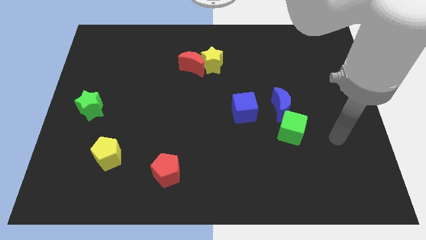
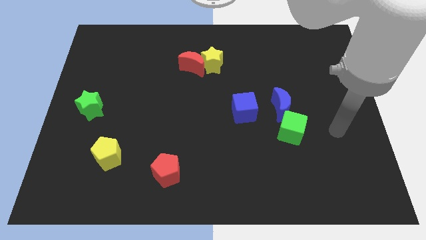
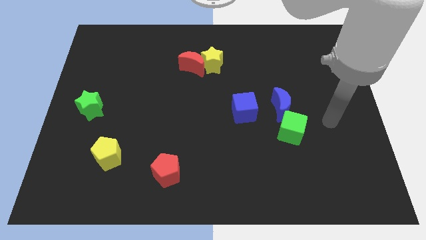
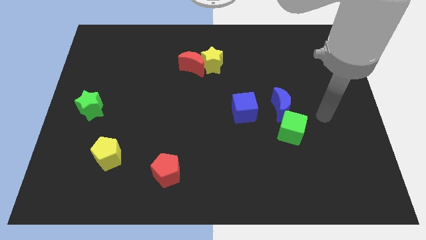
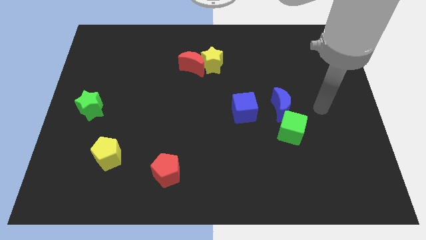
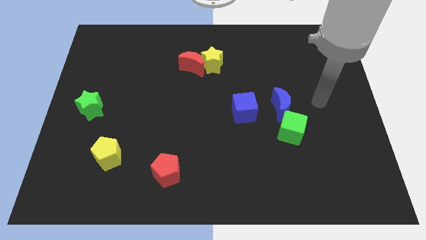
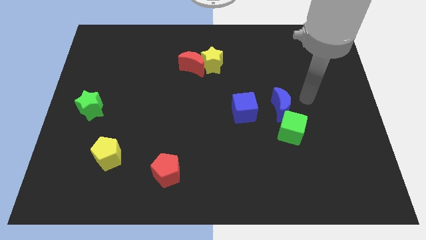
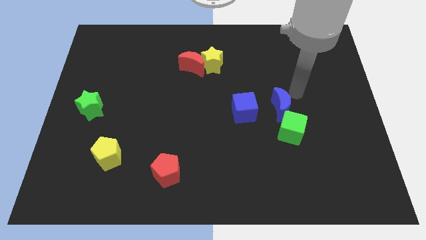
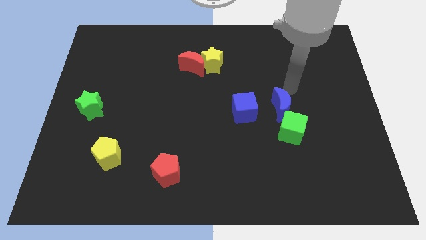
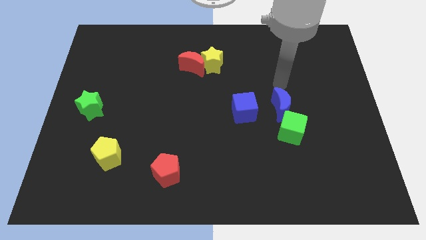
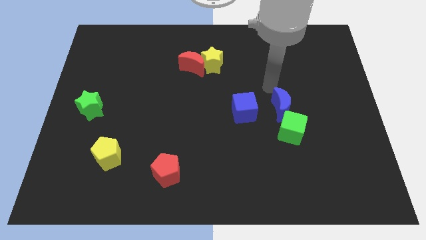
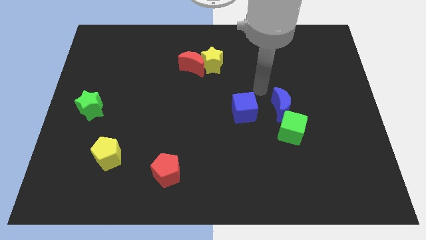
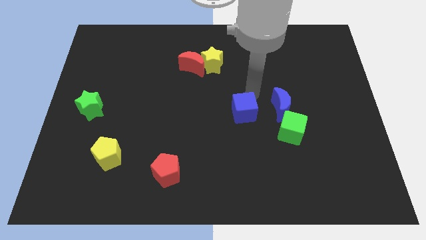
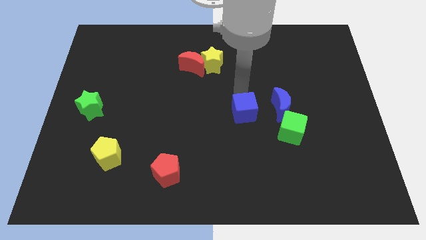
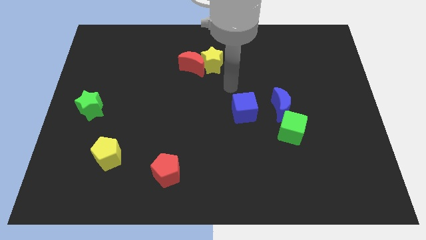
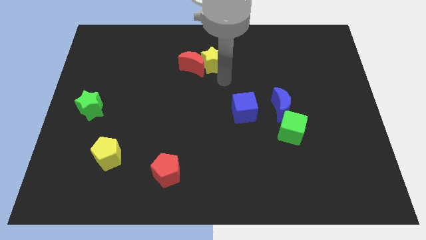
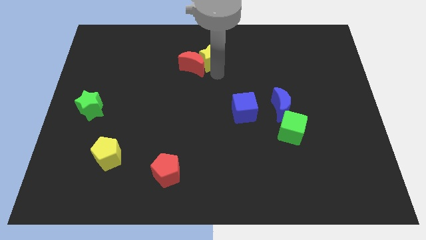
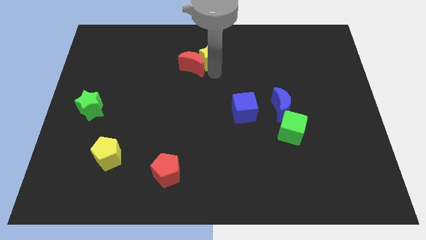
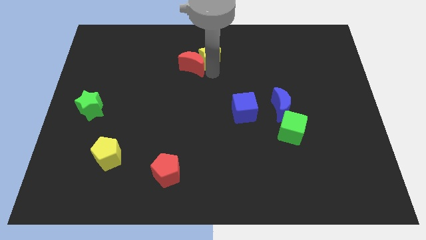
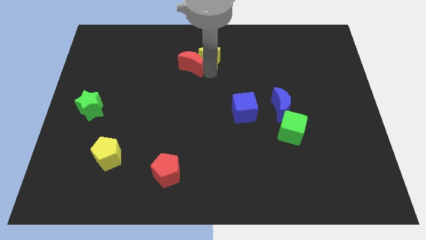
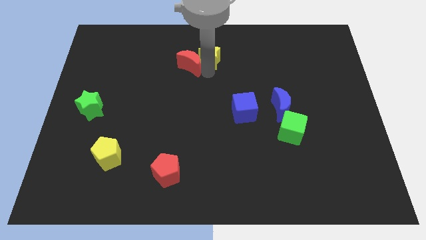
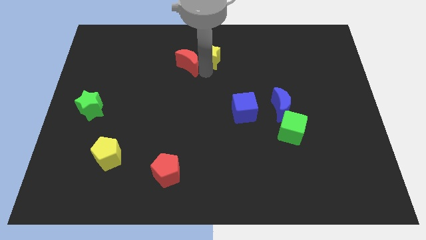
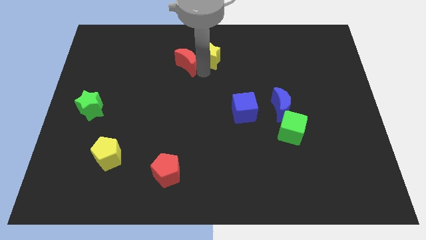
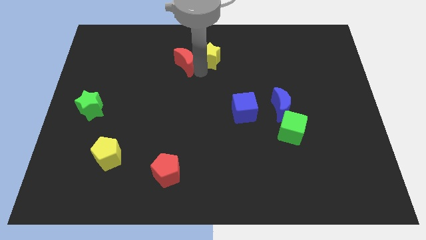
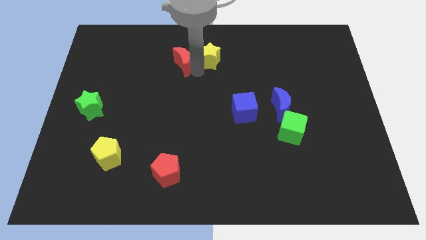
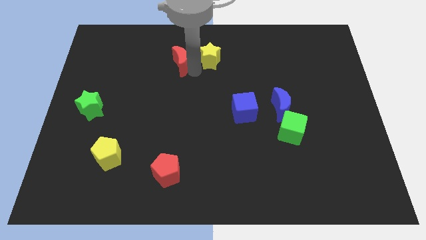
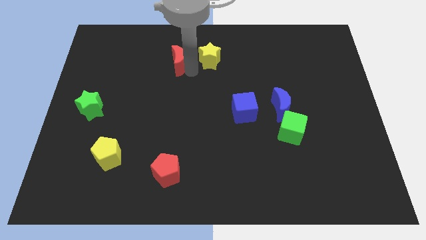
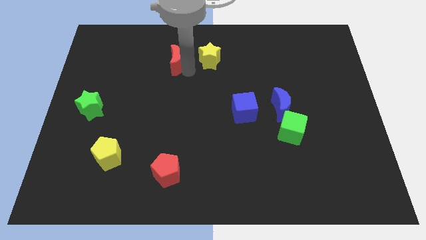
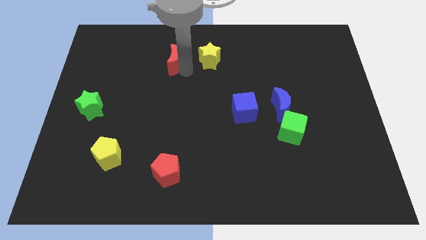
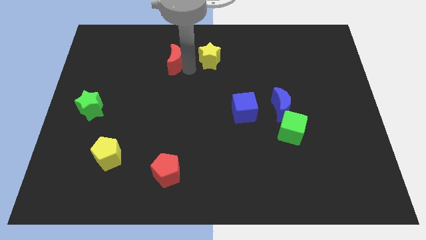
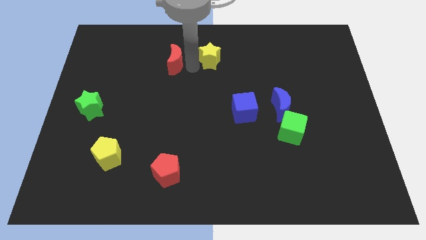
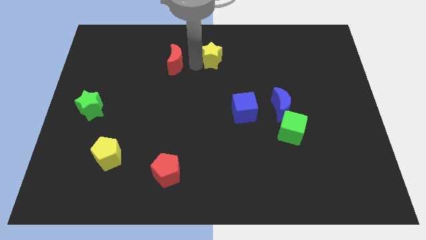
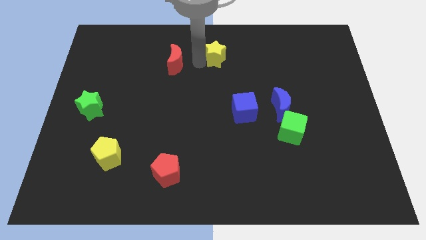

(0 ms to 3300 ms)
pull the red moon apart from the yellow star

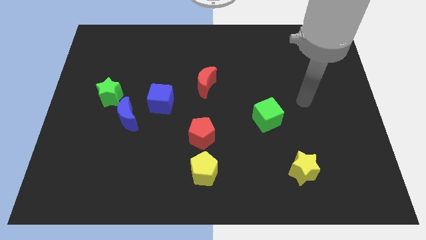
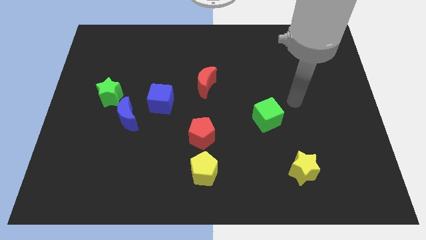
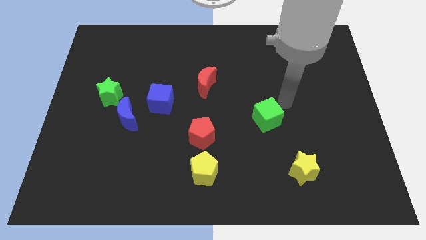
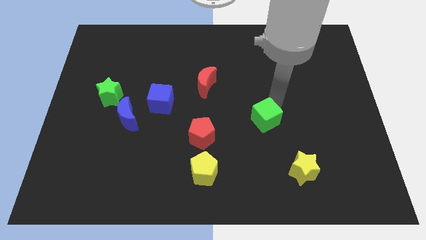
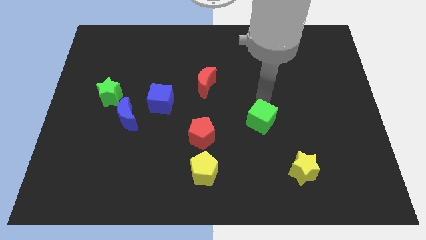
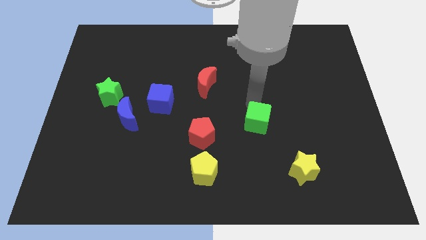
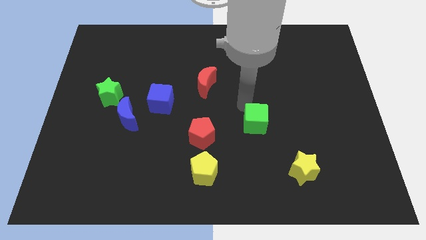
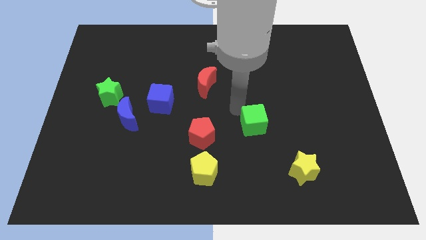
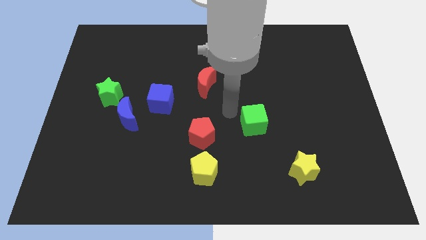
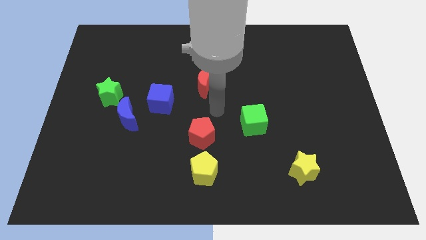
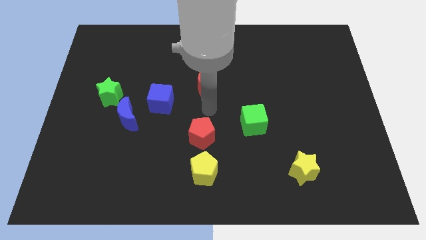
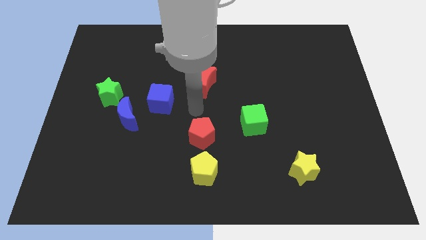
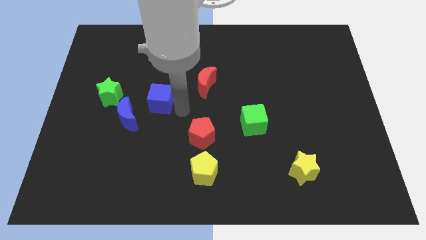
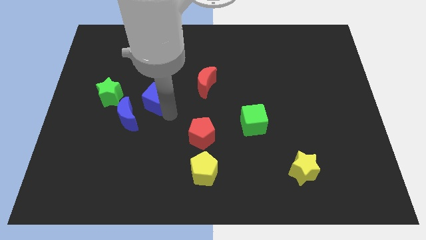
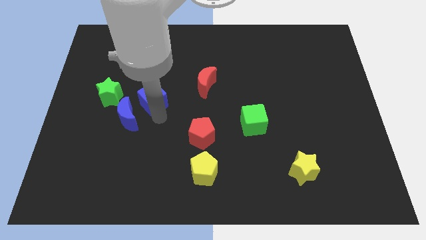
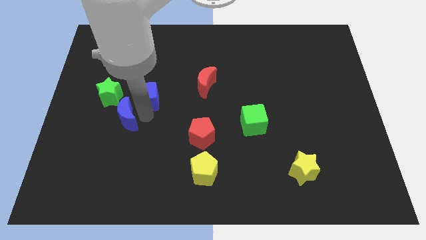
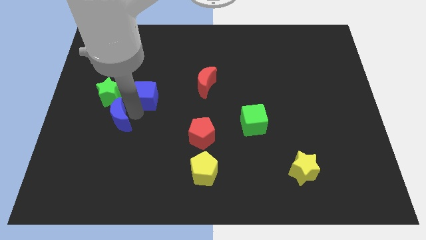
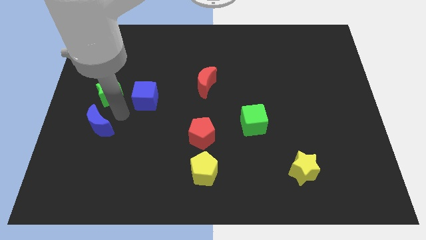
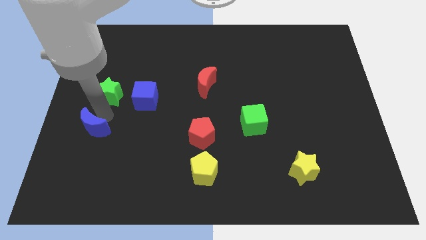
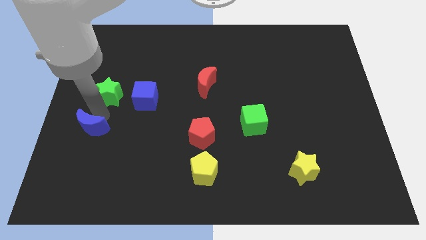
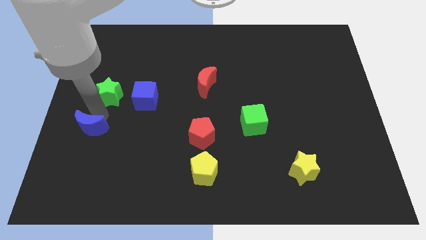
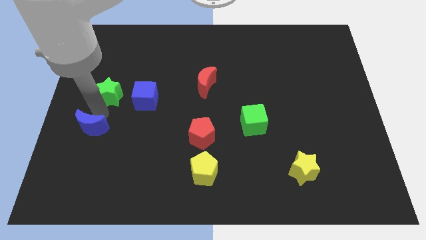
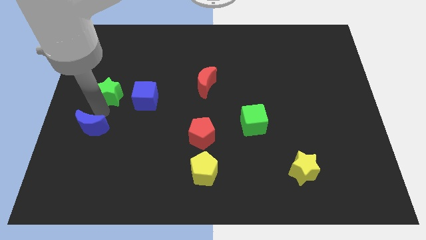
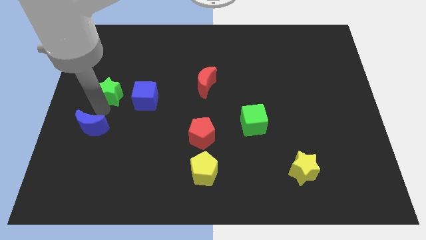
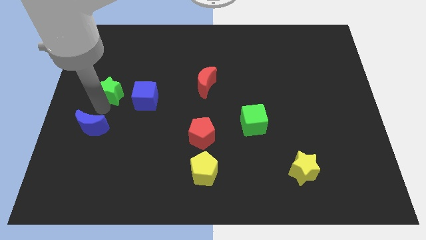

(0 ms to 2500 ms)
separate the green star from the blue moon

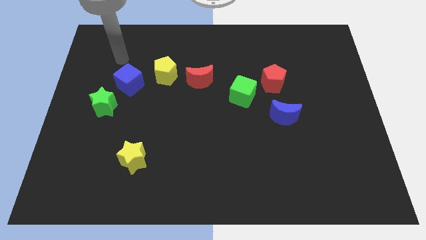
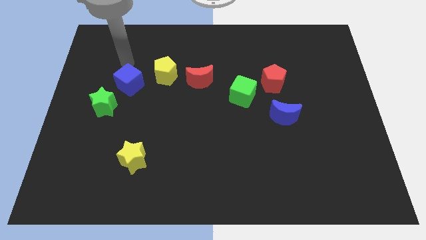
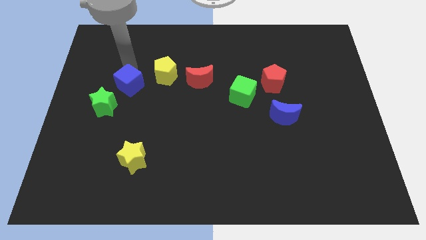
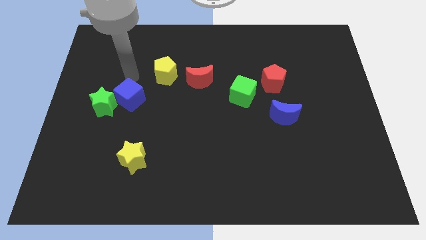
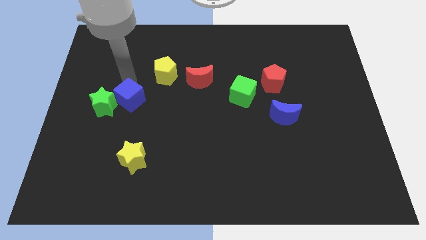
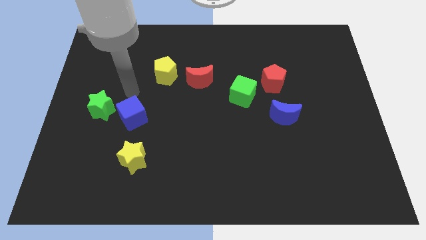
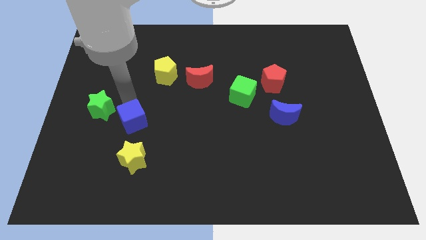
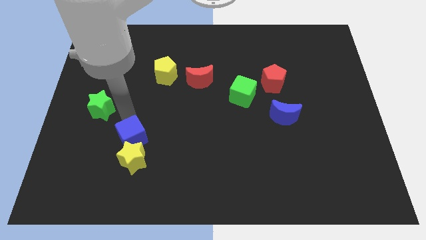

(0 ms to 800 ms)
pull the green star apart from the blue cube

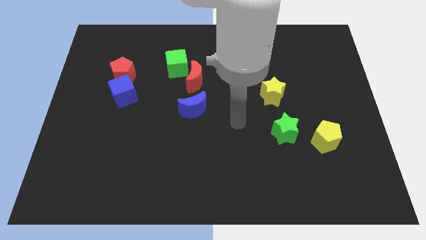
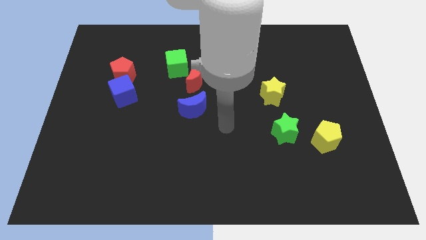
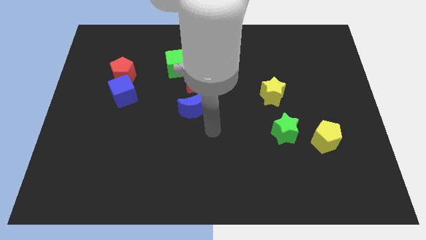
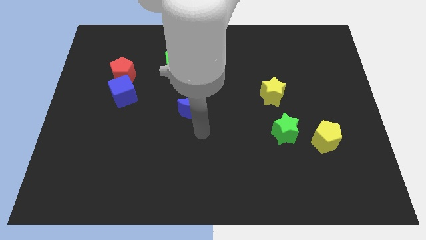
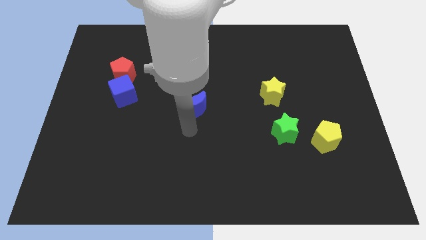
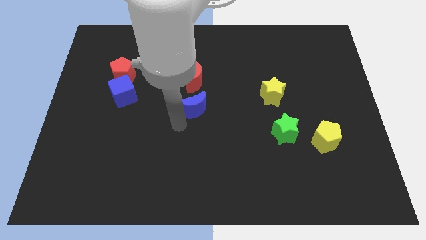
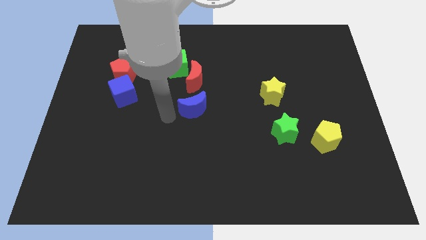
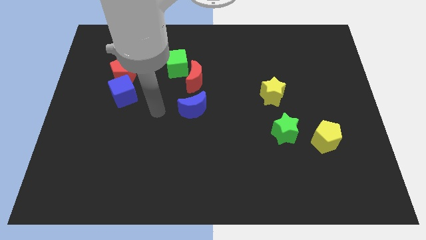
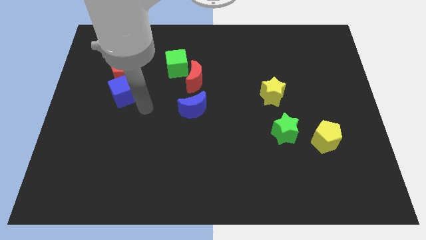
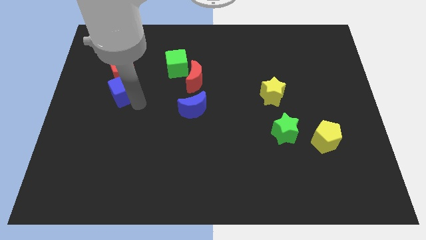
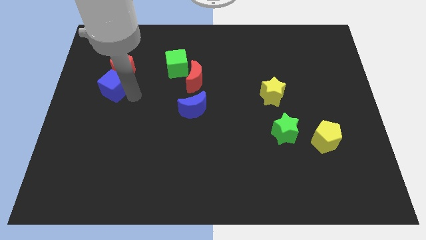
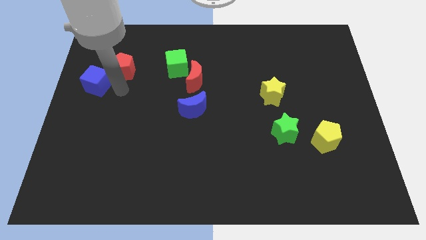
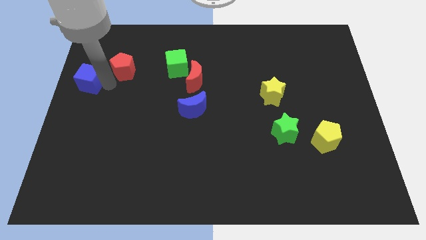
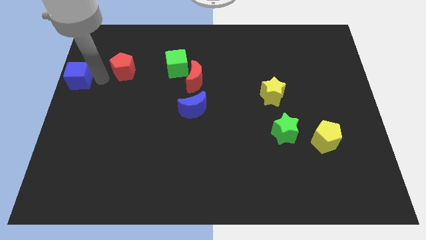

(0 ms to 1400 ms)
separate the red pentagon from the blue cube

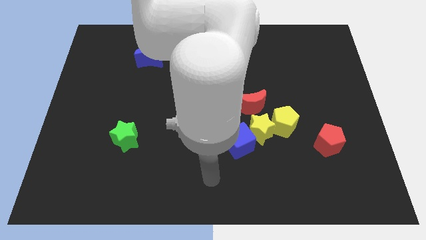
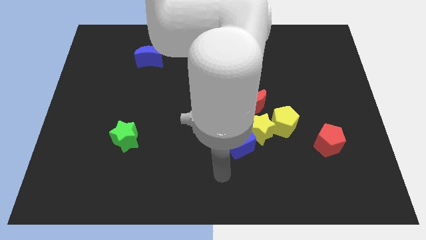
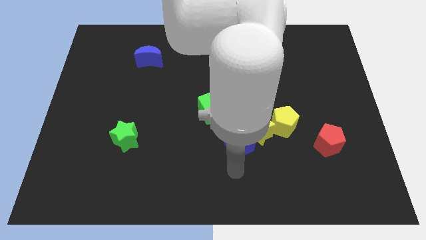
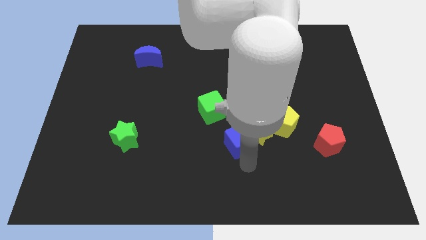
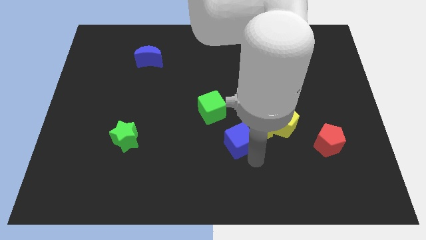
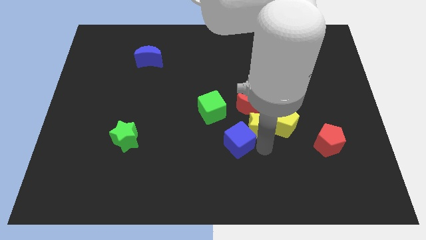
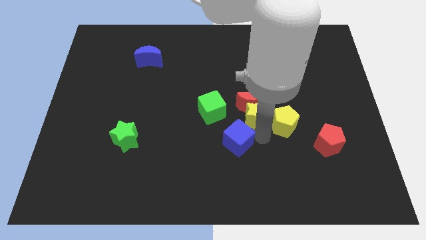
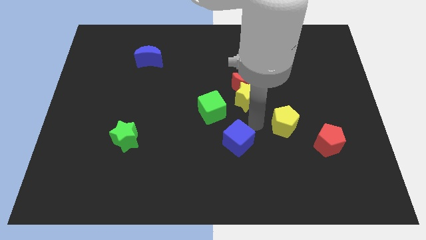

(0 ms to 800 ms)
move the blue cube away from the yellow star

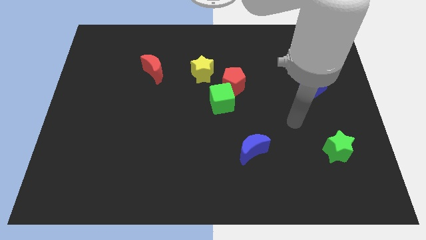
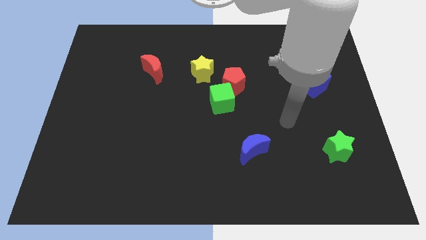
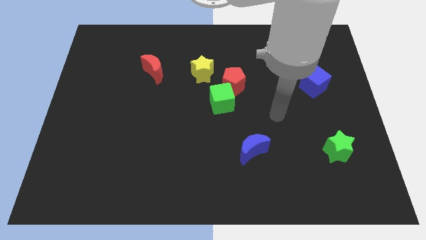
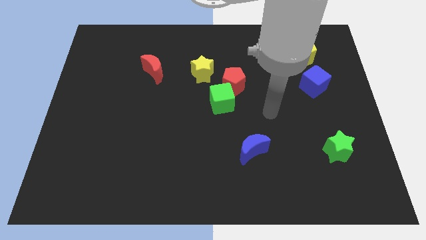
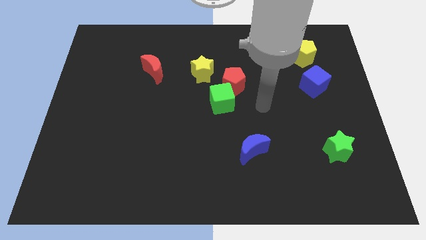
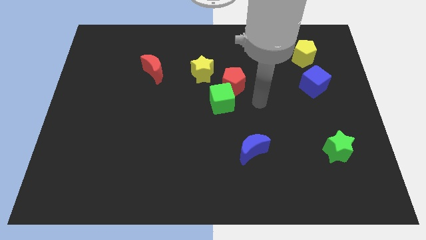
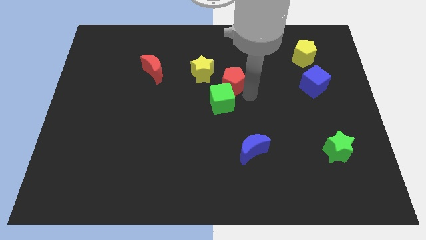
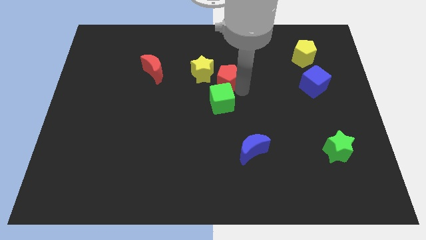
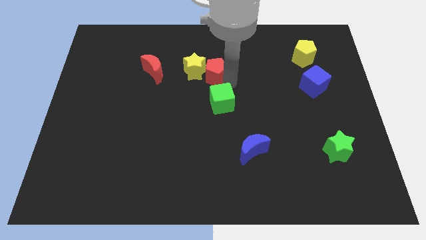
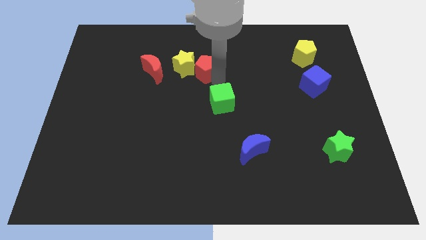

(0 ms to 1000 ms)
separate the green cube from the red pentagon
